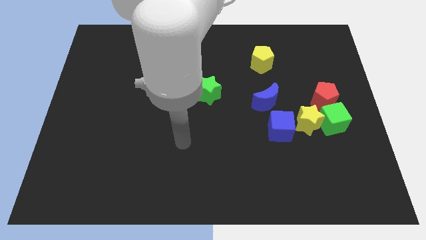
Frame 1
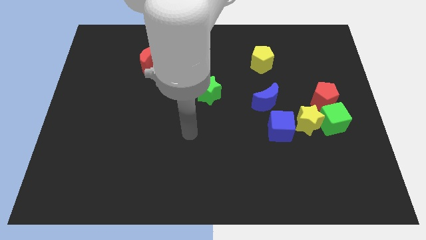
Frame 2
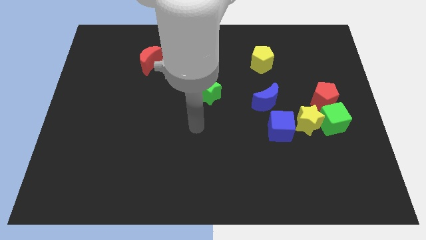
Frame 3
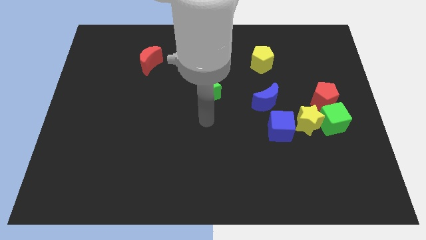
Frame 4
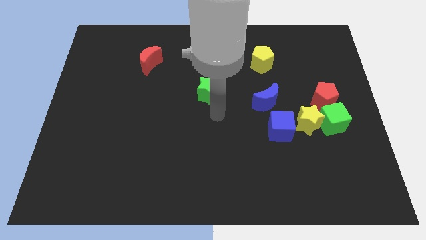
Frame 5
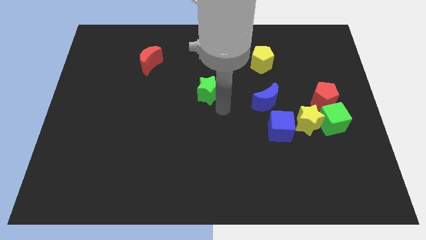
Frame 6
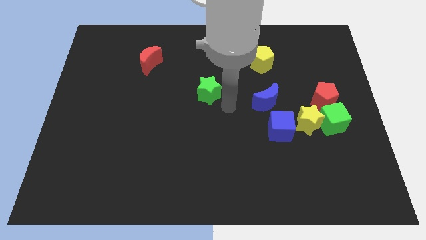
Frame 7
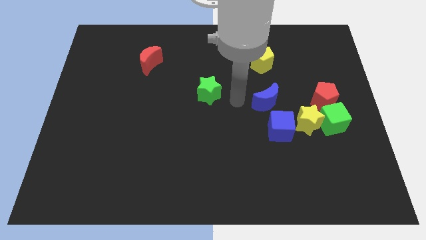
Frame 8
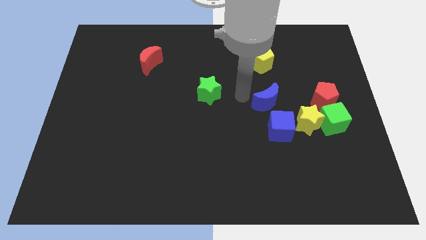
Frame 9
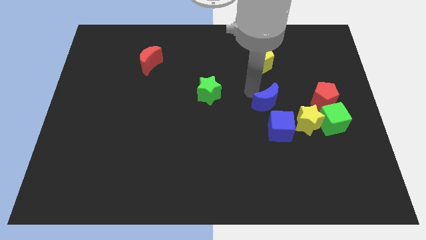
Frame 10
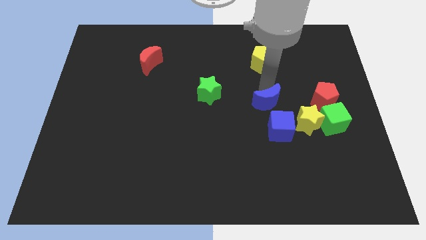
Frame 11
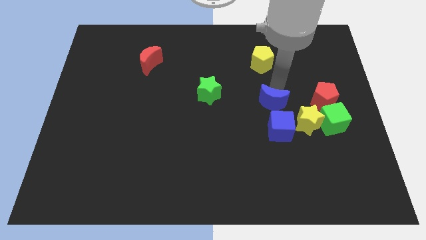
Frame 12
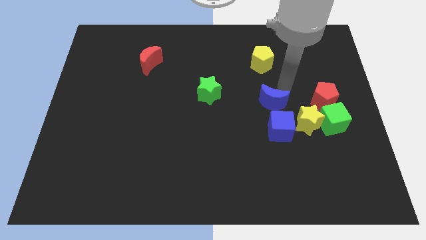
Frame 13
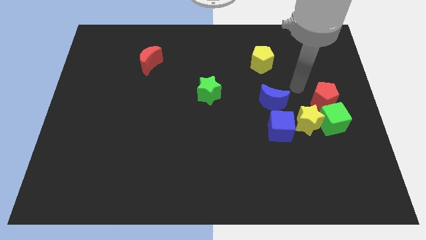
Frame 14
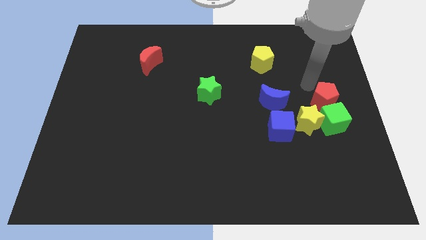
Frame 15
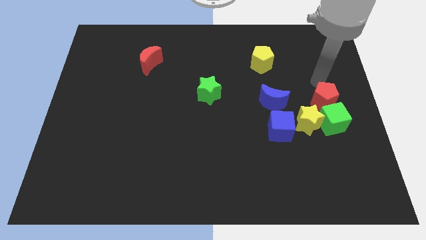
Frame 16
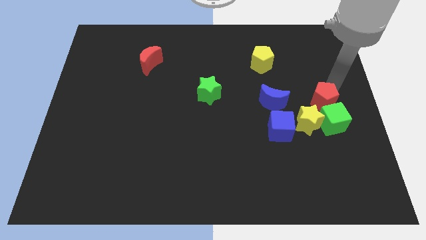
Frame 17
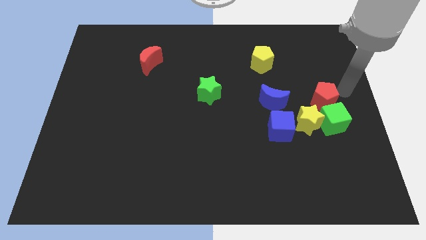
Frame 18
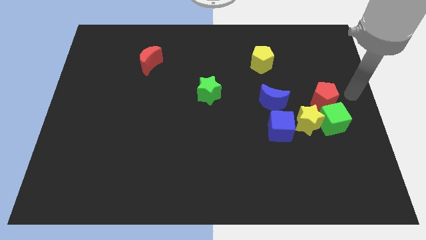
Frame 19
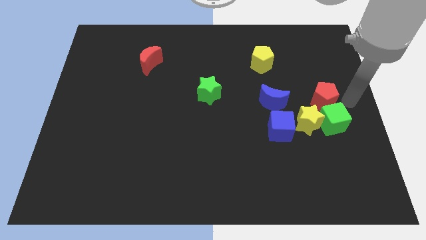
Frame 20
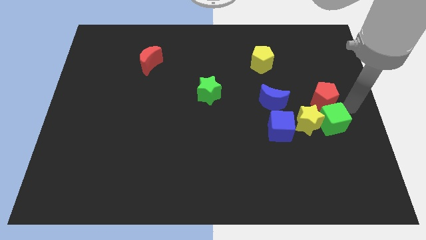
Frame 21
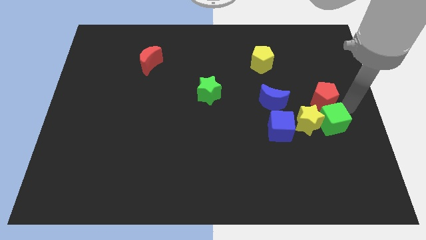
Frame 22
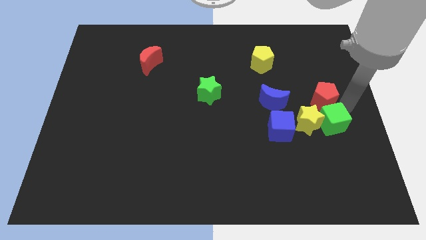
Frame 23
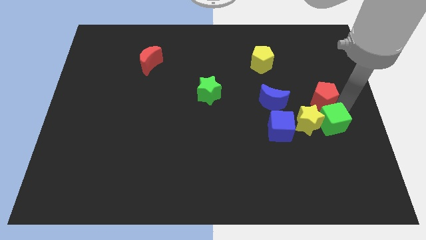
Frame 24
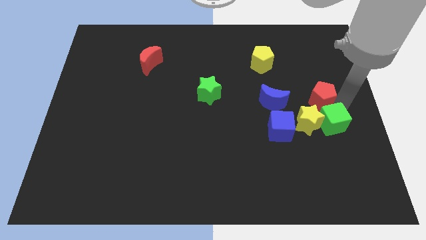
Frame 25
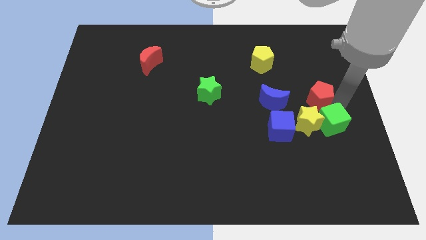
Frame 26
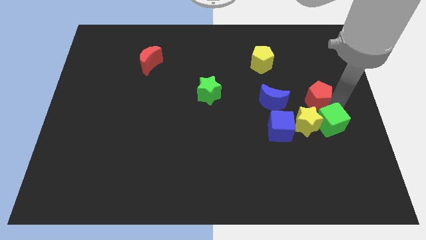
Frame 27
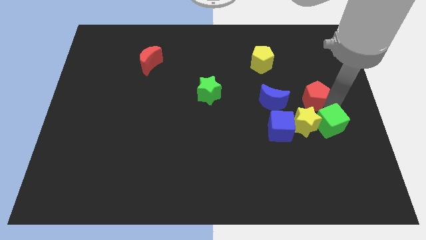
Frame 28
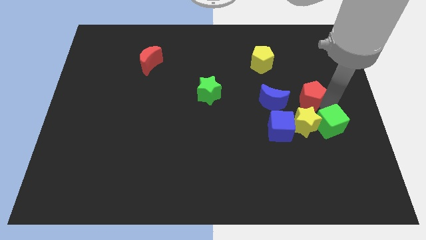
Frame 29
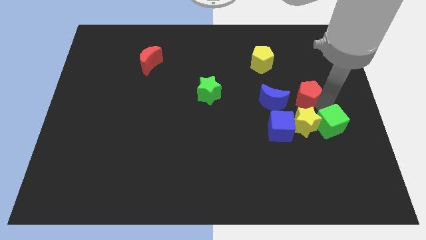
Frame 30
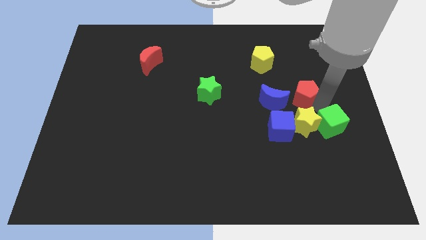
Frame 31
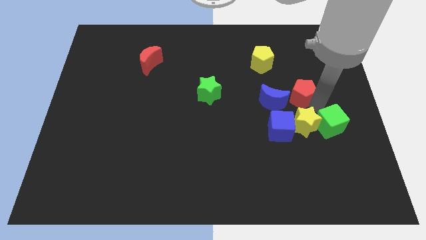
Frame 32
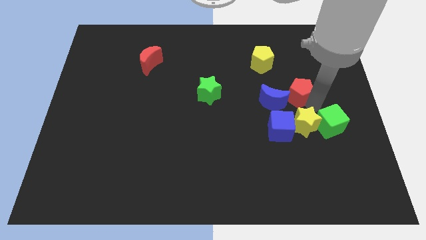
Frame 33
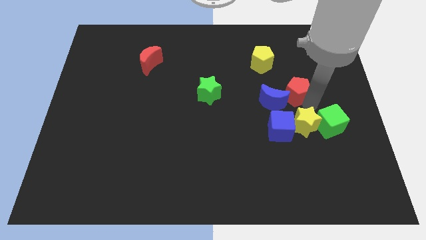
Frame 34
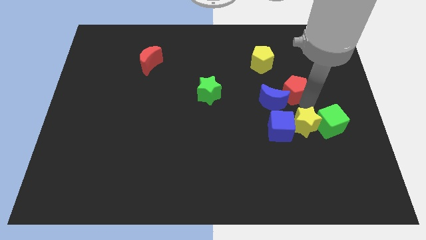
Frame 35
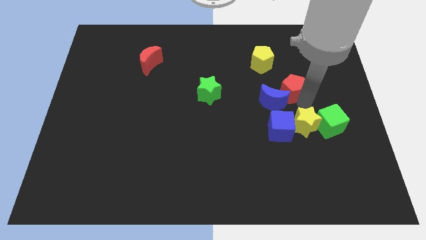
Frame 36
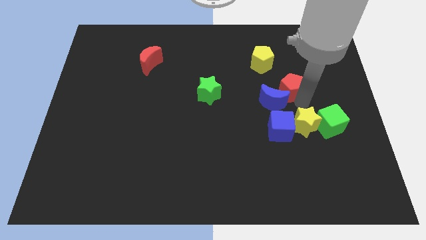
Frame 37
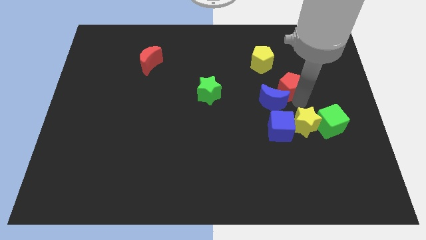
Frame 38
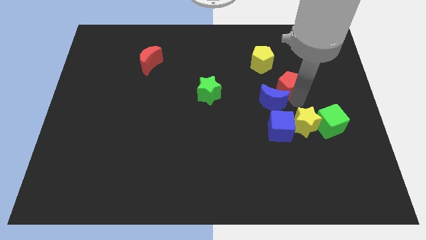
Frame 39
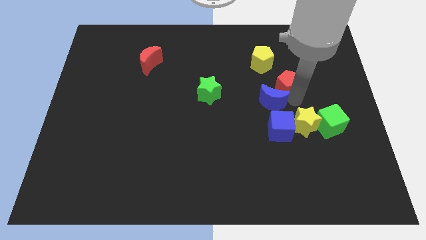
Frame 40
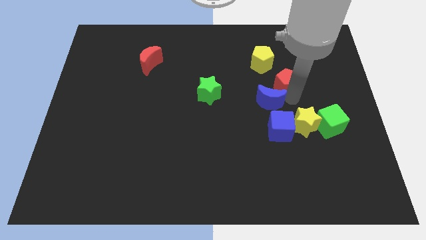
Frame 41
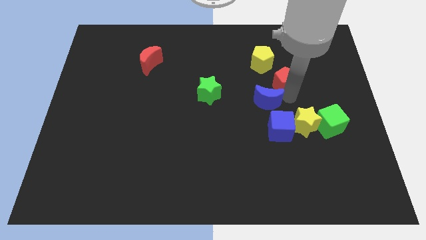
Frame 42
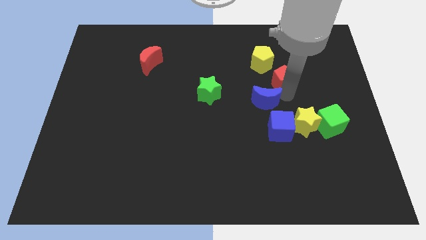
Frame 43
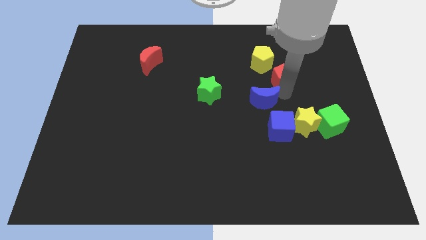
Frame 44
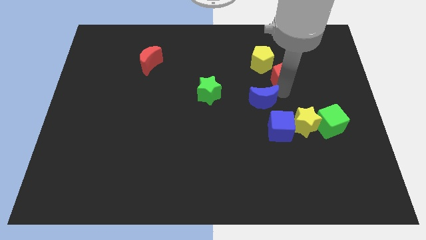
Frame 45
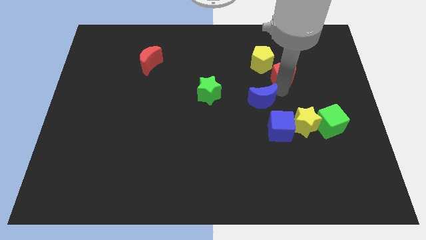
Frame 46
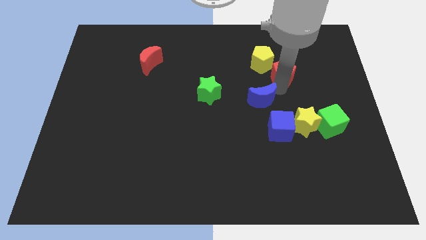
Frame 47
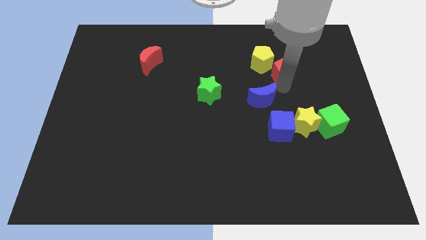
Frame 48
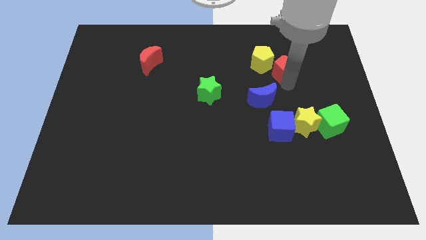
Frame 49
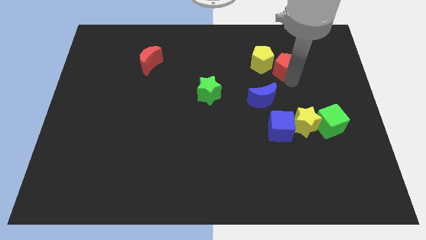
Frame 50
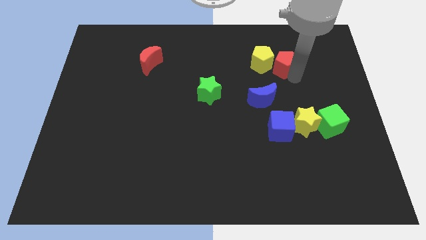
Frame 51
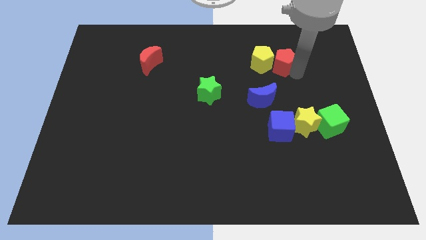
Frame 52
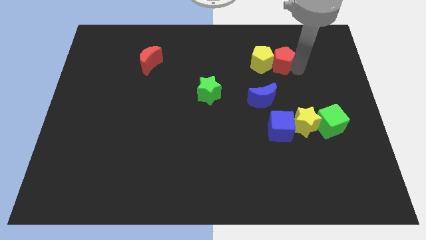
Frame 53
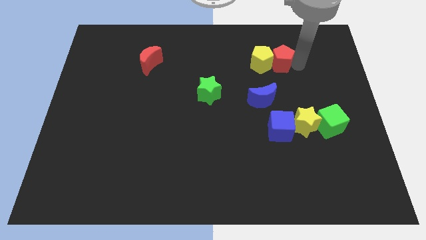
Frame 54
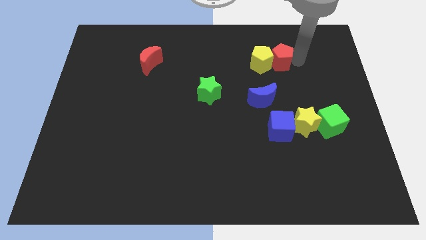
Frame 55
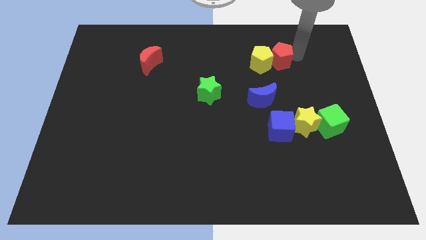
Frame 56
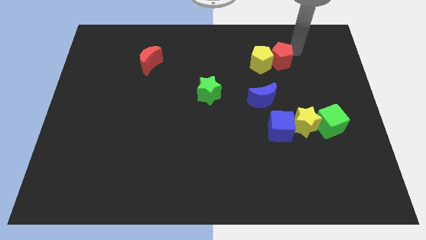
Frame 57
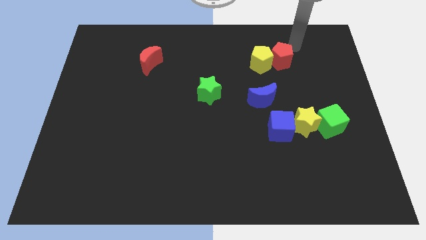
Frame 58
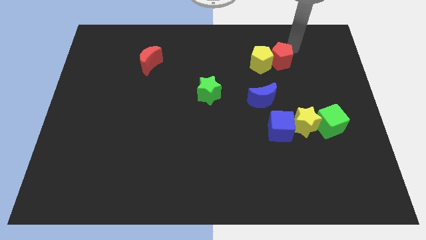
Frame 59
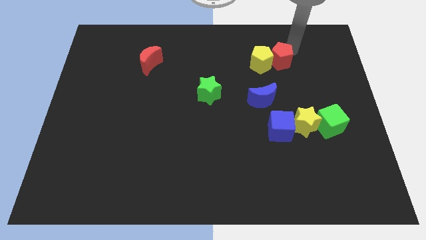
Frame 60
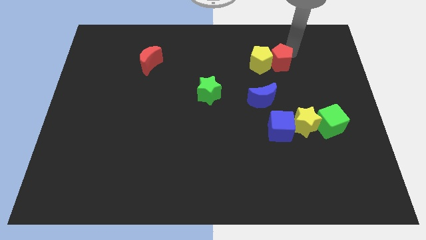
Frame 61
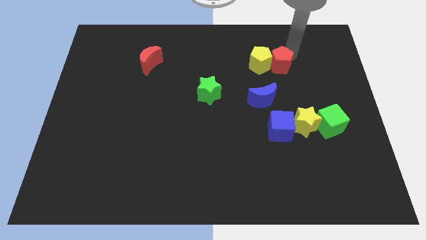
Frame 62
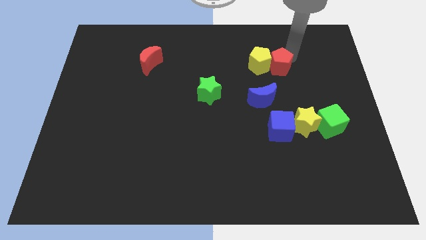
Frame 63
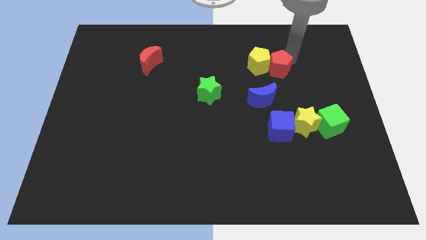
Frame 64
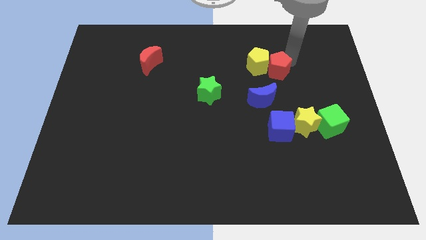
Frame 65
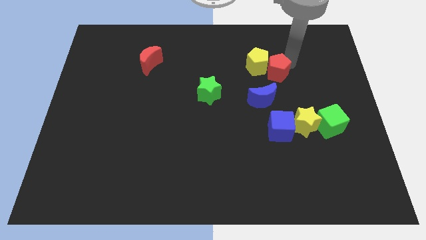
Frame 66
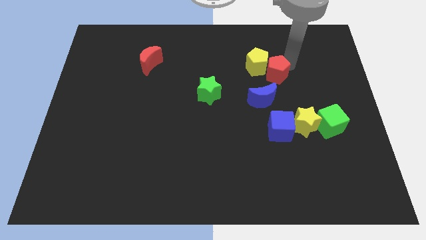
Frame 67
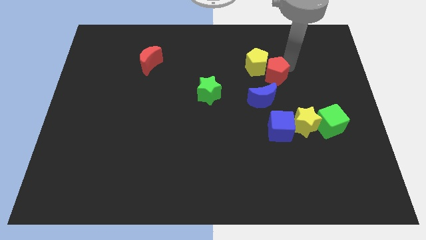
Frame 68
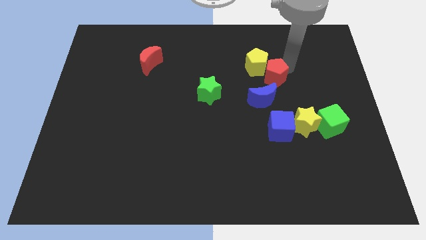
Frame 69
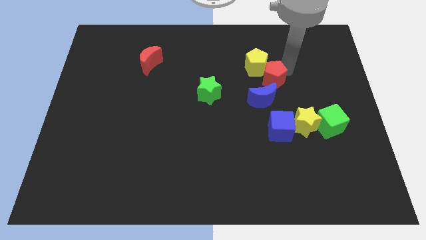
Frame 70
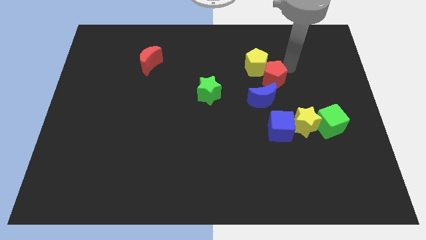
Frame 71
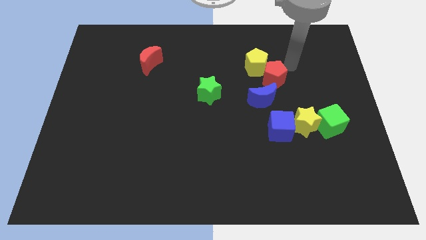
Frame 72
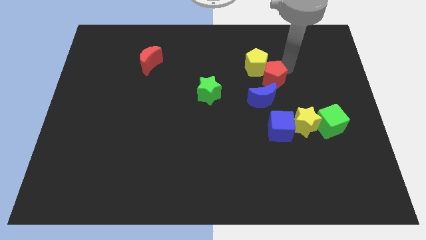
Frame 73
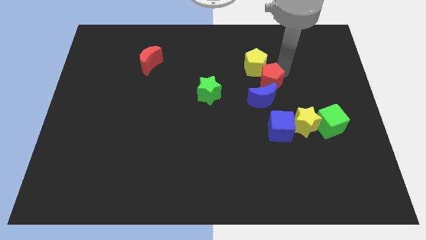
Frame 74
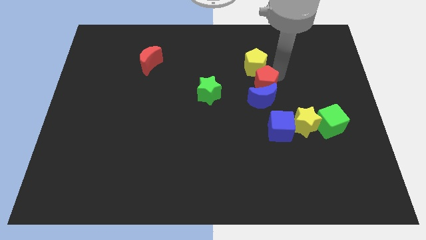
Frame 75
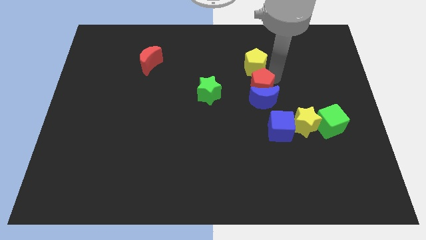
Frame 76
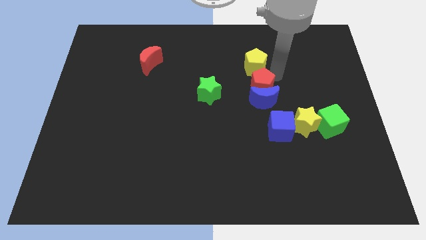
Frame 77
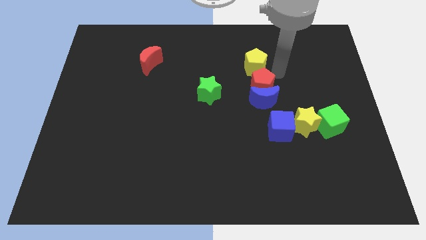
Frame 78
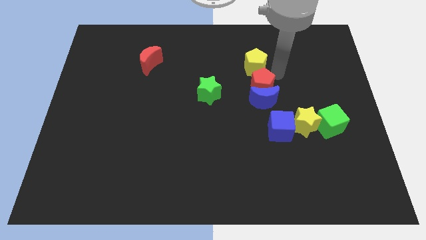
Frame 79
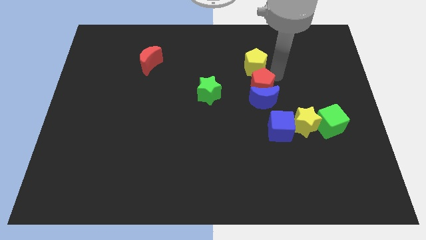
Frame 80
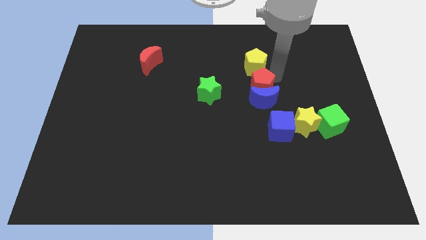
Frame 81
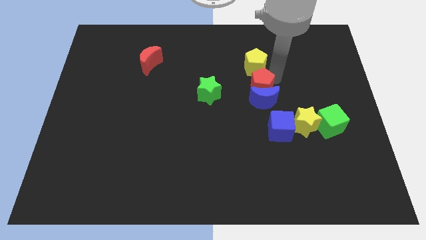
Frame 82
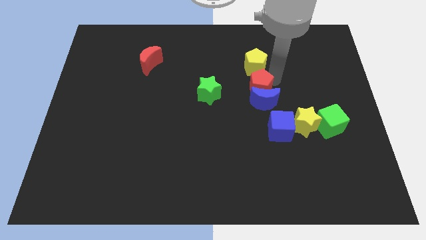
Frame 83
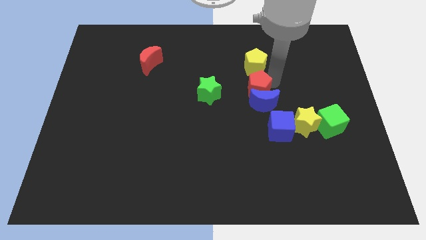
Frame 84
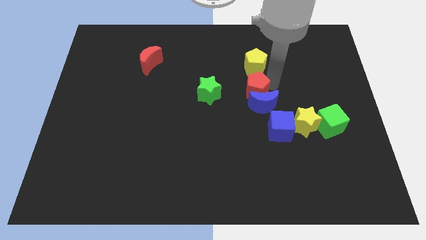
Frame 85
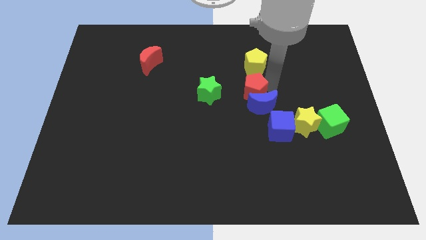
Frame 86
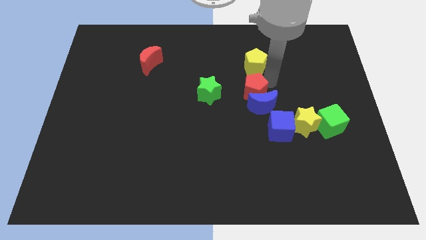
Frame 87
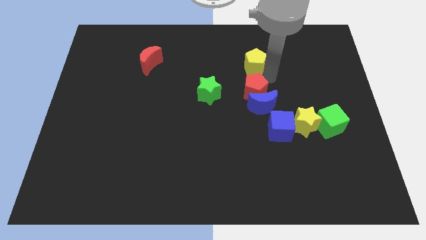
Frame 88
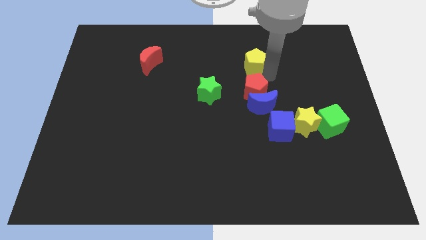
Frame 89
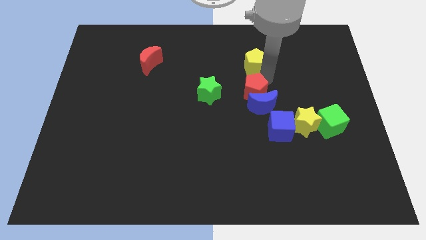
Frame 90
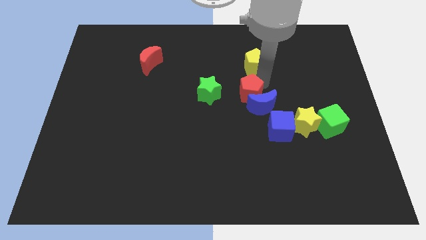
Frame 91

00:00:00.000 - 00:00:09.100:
push the red pentagon to the top left side of the blue cube
